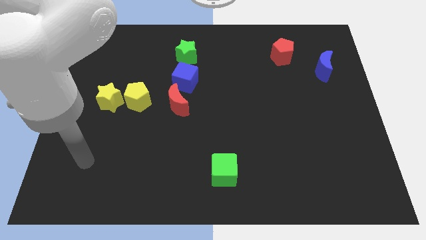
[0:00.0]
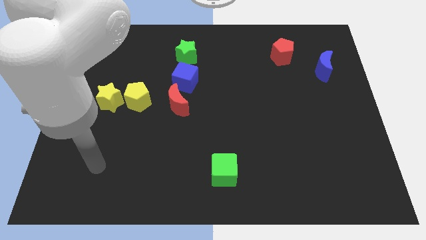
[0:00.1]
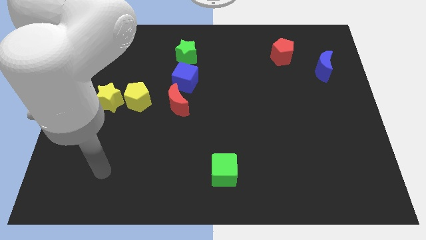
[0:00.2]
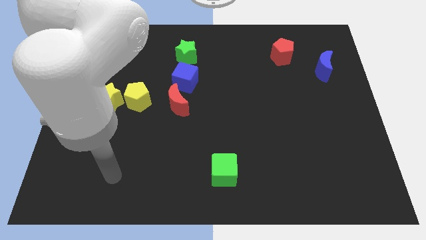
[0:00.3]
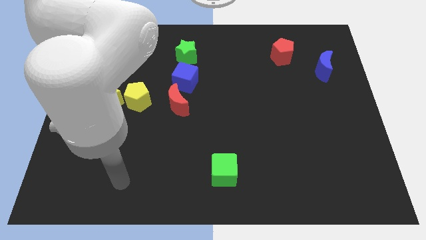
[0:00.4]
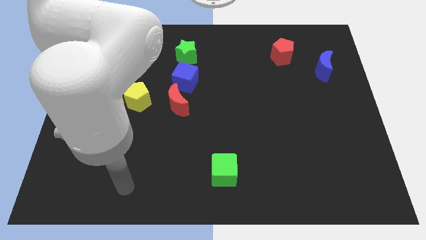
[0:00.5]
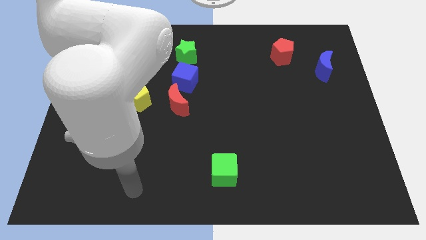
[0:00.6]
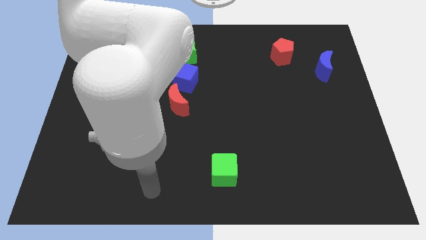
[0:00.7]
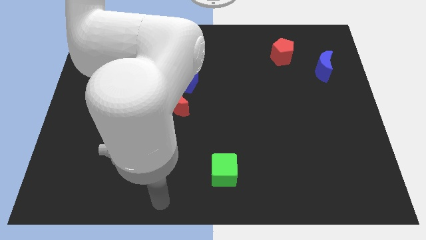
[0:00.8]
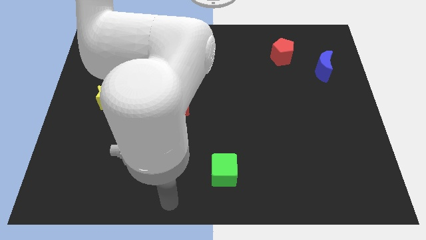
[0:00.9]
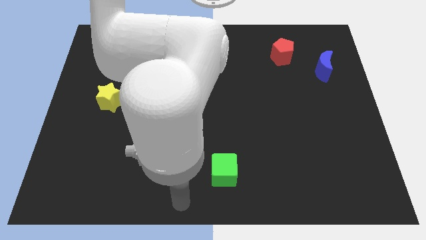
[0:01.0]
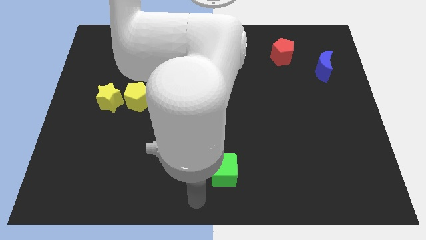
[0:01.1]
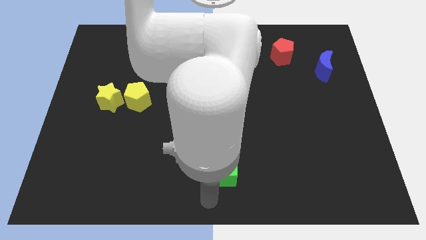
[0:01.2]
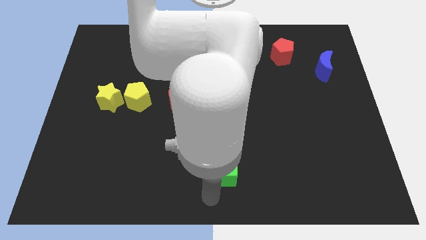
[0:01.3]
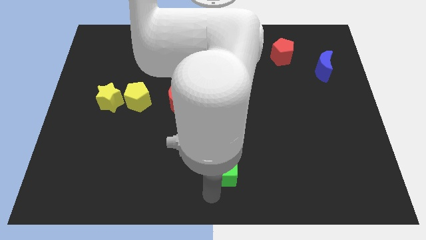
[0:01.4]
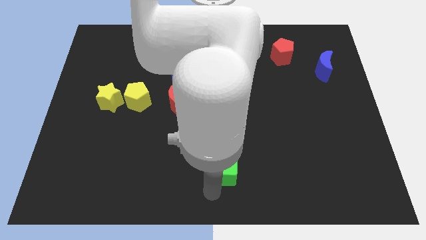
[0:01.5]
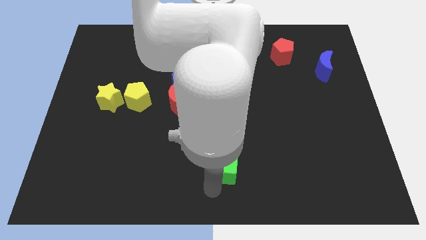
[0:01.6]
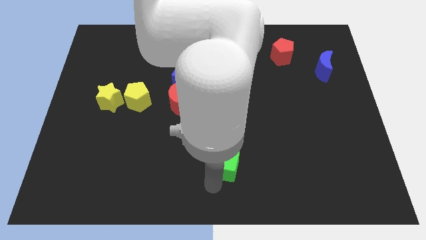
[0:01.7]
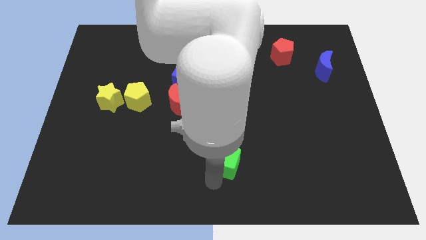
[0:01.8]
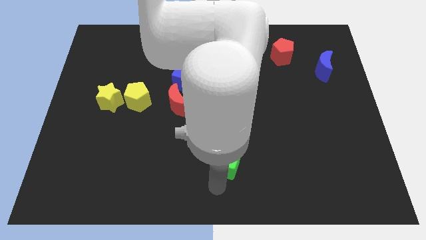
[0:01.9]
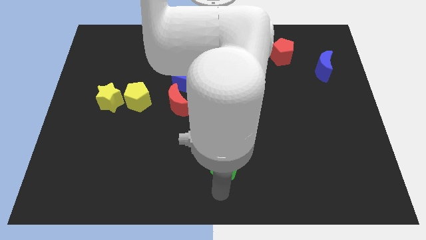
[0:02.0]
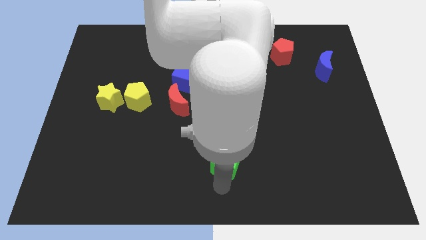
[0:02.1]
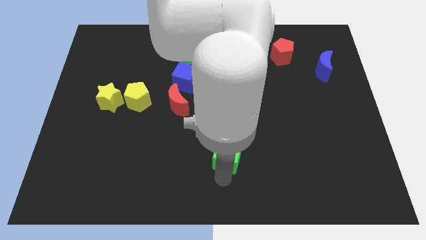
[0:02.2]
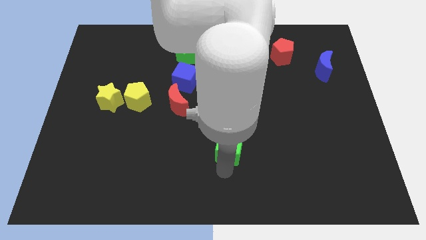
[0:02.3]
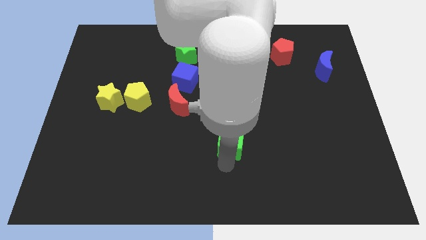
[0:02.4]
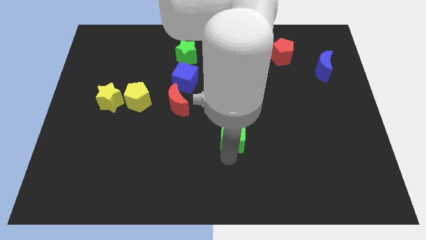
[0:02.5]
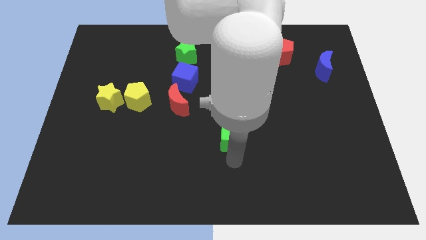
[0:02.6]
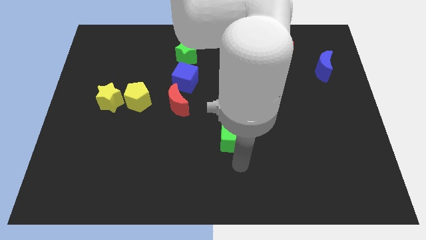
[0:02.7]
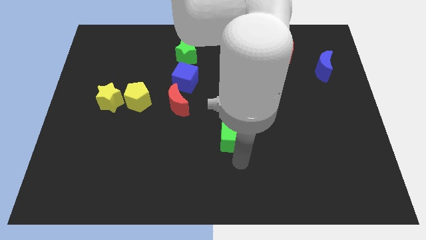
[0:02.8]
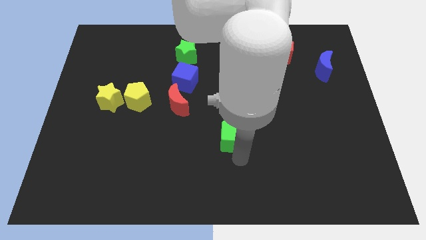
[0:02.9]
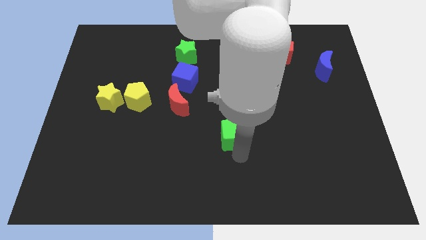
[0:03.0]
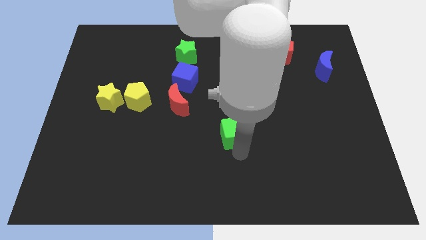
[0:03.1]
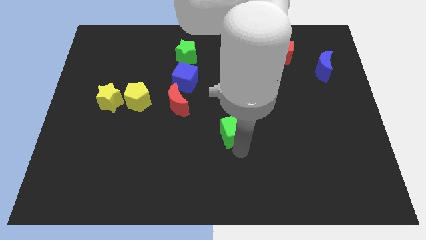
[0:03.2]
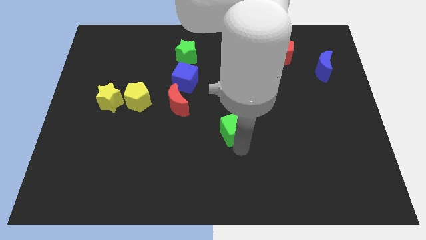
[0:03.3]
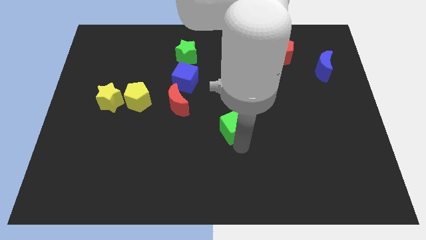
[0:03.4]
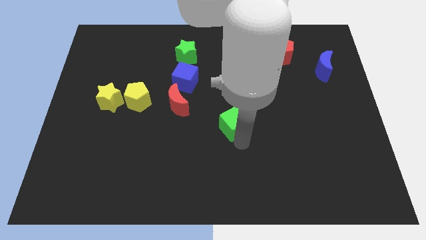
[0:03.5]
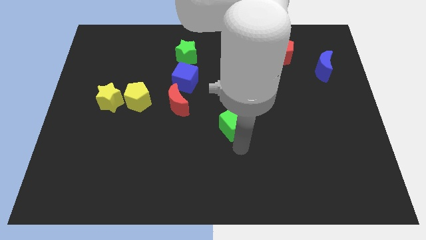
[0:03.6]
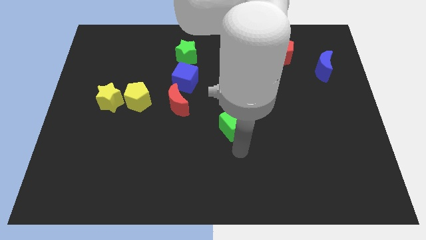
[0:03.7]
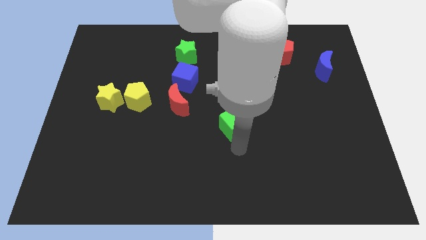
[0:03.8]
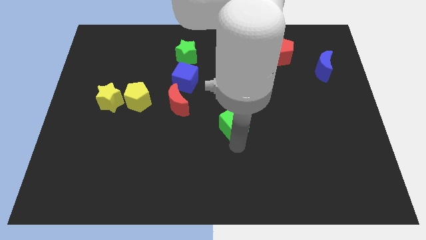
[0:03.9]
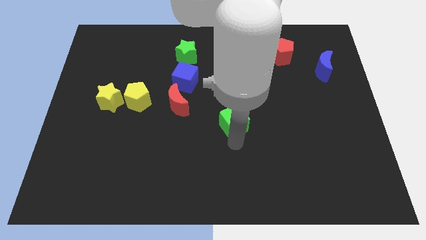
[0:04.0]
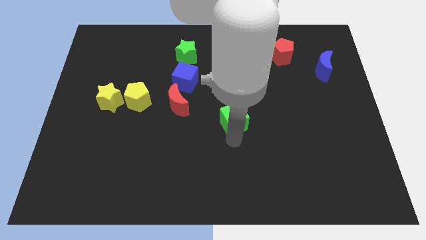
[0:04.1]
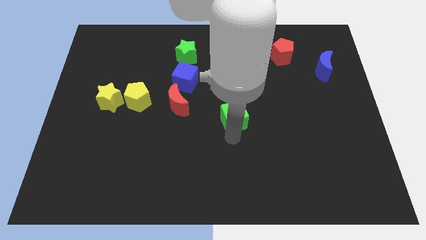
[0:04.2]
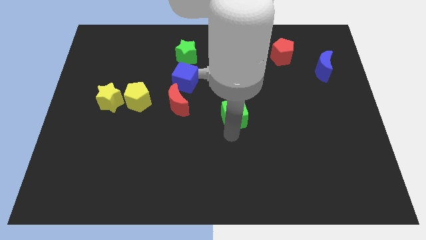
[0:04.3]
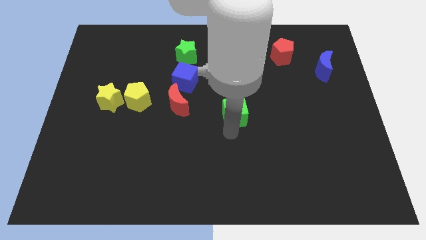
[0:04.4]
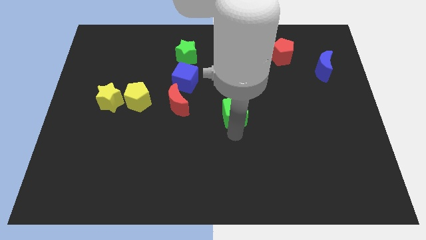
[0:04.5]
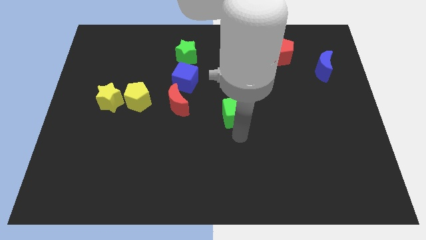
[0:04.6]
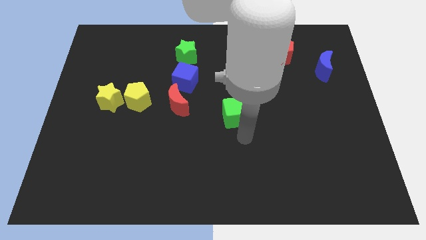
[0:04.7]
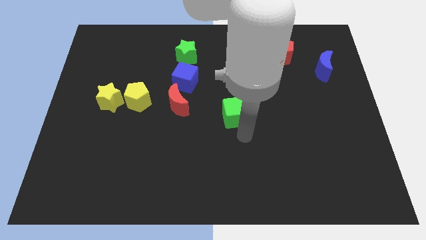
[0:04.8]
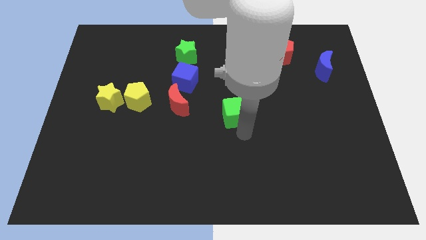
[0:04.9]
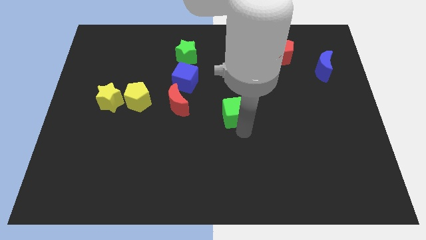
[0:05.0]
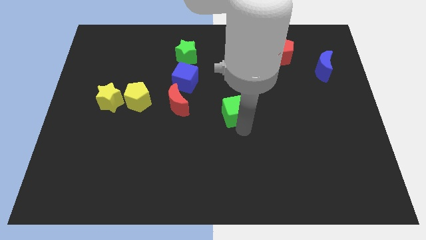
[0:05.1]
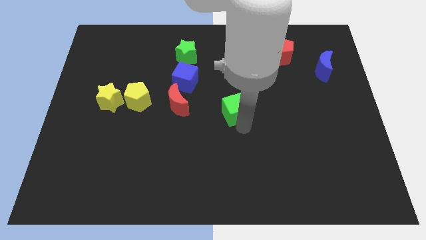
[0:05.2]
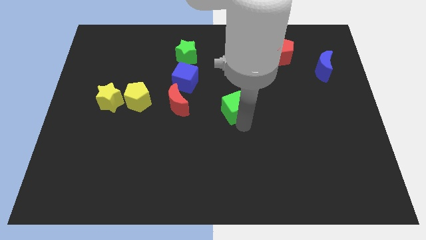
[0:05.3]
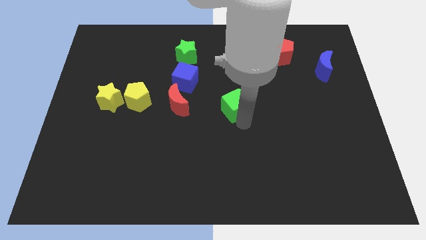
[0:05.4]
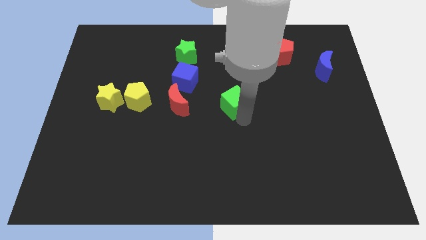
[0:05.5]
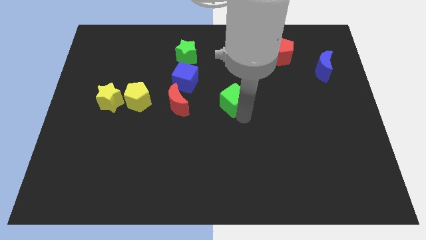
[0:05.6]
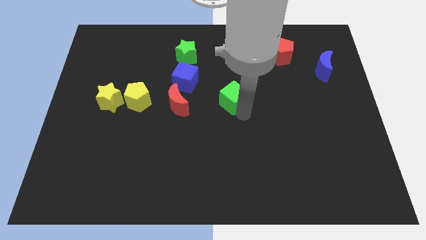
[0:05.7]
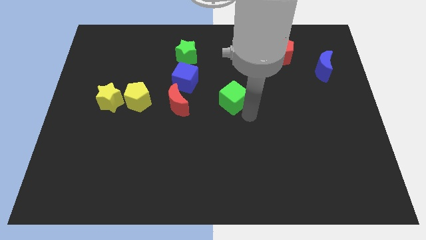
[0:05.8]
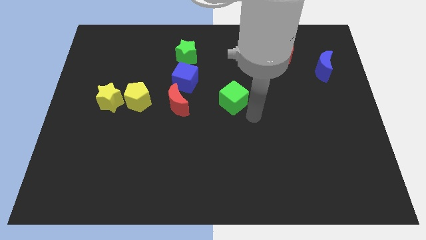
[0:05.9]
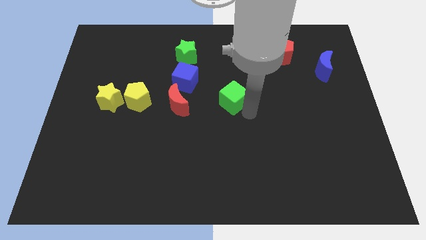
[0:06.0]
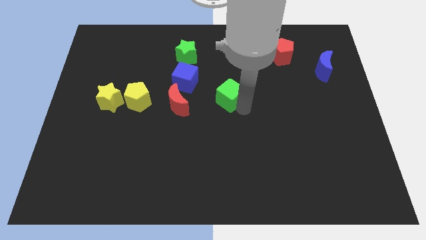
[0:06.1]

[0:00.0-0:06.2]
move the green cube upwards

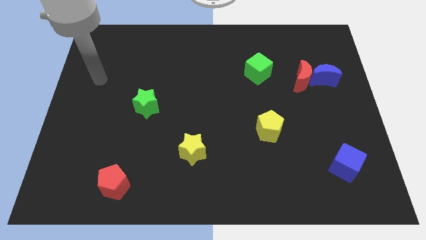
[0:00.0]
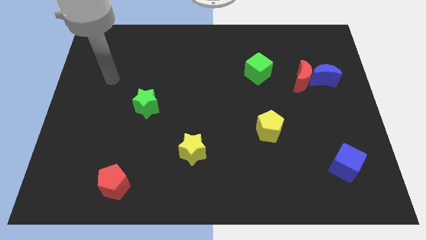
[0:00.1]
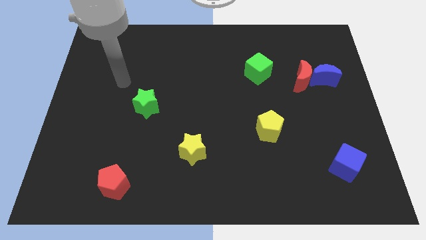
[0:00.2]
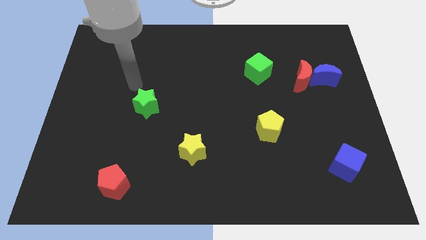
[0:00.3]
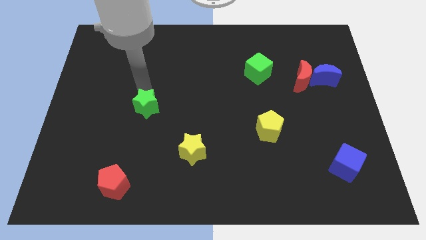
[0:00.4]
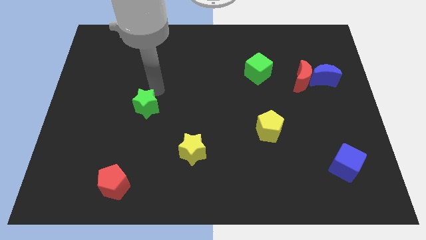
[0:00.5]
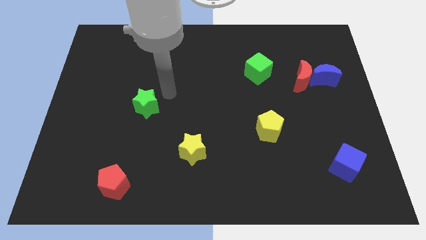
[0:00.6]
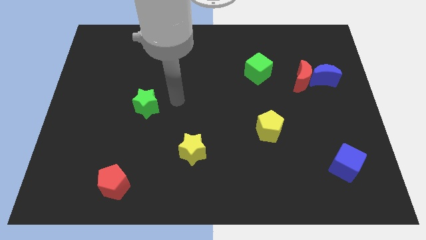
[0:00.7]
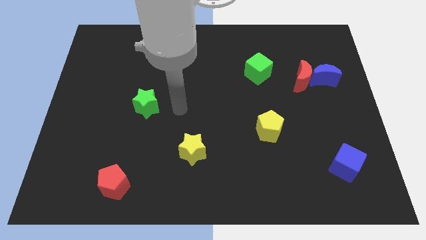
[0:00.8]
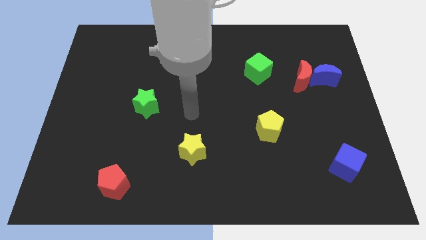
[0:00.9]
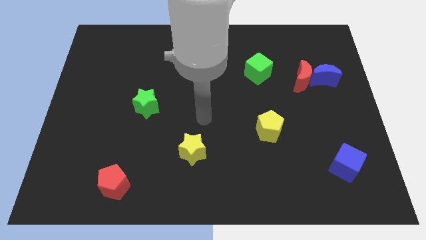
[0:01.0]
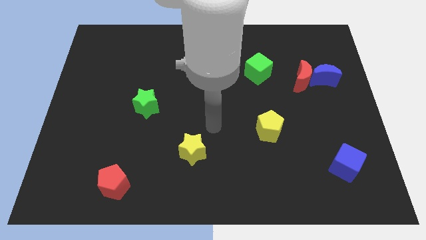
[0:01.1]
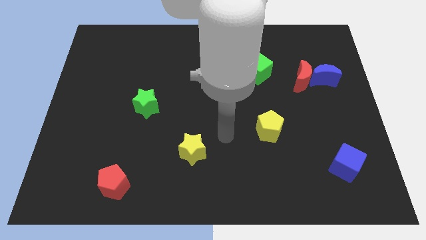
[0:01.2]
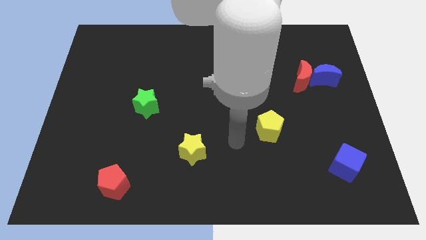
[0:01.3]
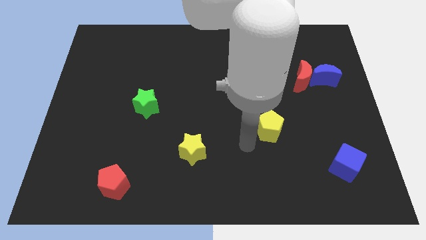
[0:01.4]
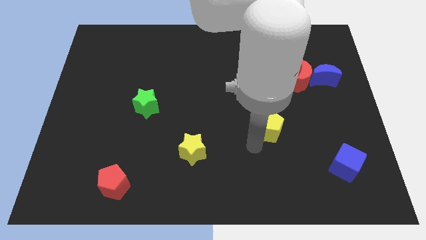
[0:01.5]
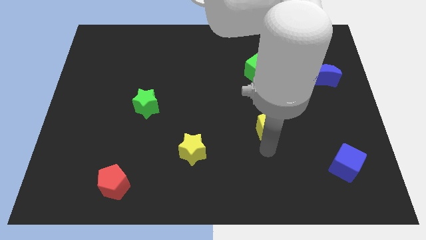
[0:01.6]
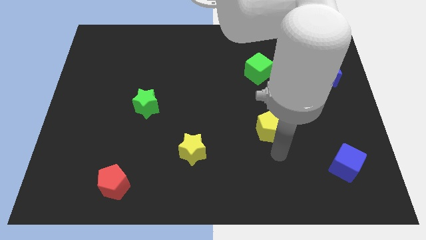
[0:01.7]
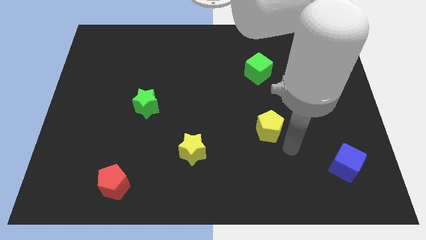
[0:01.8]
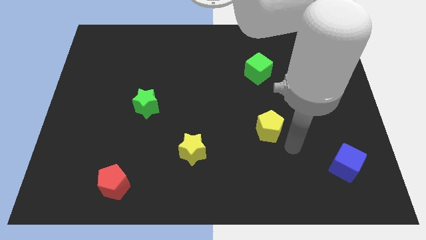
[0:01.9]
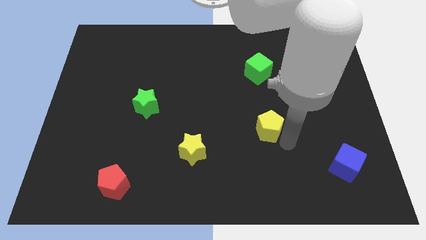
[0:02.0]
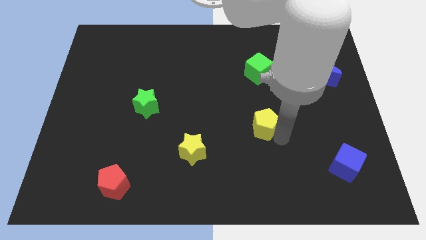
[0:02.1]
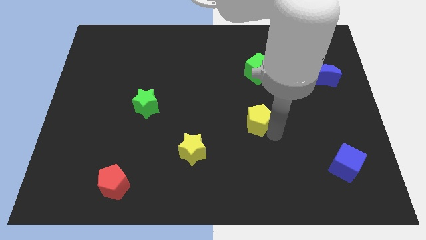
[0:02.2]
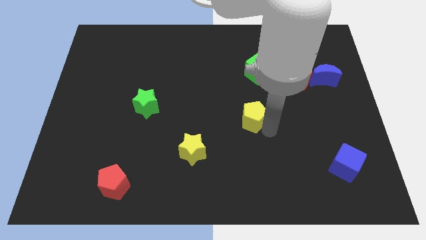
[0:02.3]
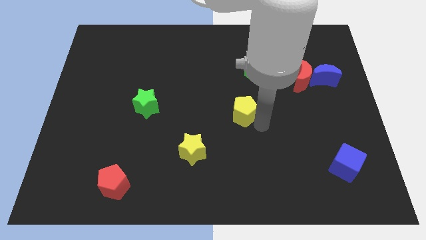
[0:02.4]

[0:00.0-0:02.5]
slightly move the yellow pentagon upwards and to the left diagonally
